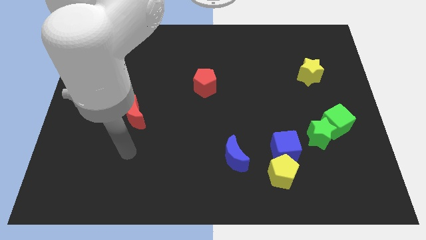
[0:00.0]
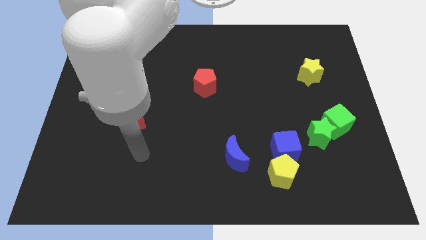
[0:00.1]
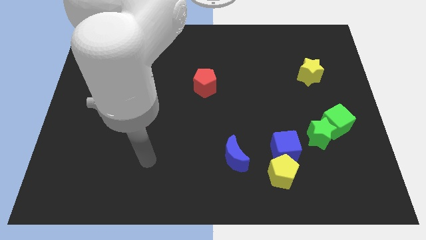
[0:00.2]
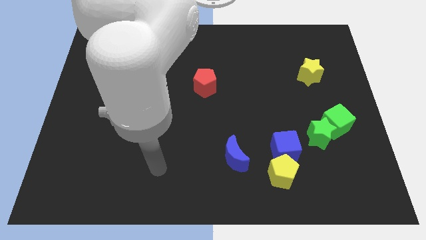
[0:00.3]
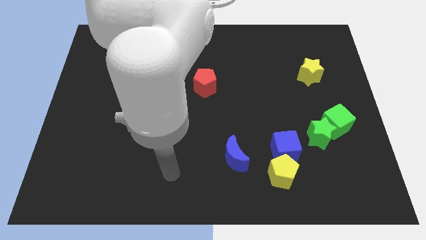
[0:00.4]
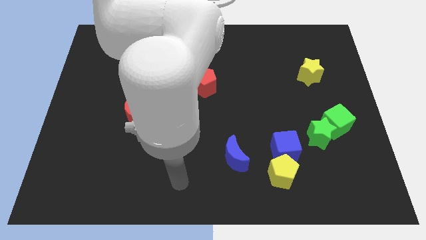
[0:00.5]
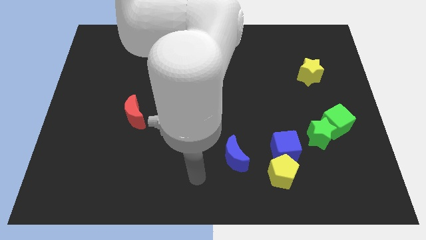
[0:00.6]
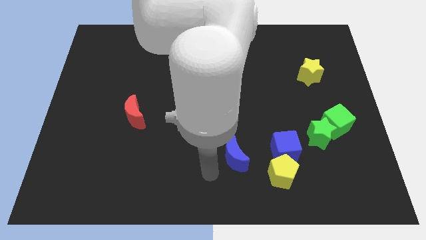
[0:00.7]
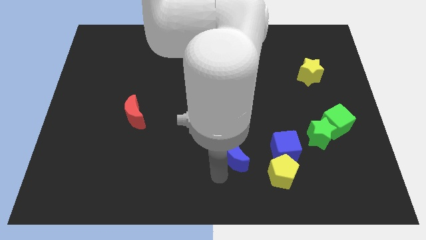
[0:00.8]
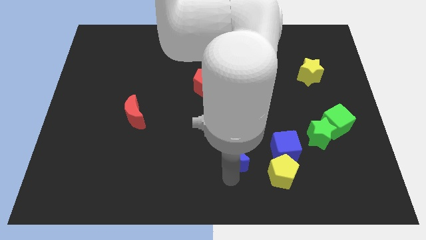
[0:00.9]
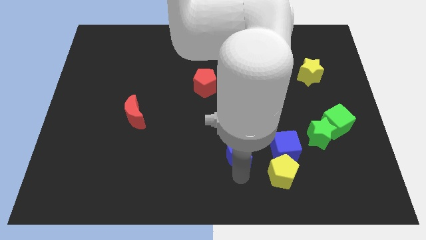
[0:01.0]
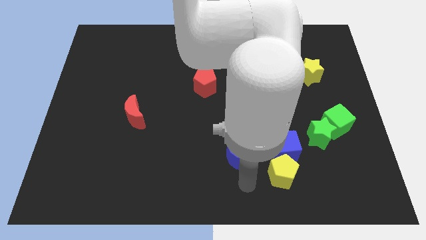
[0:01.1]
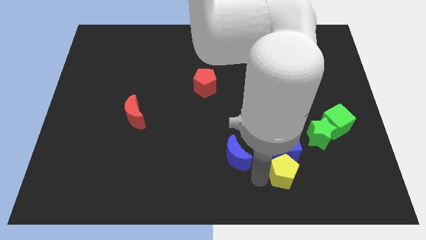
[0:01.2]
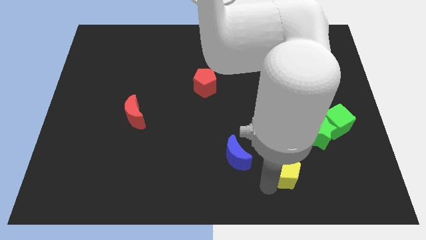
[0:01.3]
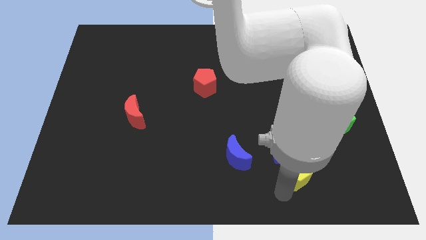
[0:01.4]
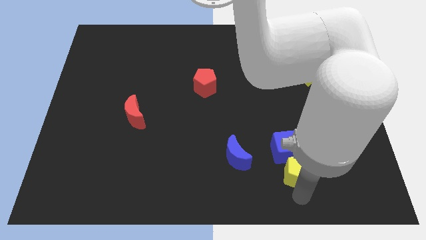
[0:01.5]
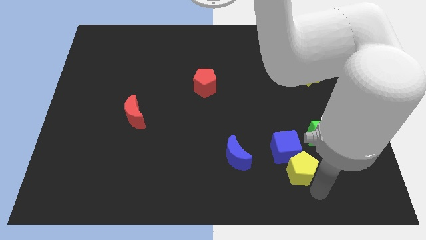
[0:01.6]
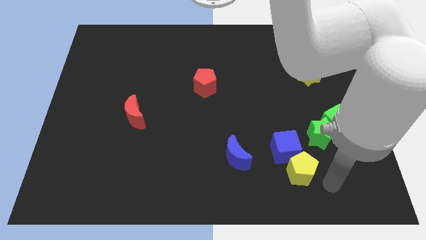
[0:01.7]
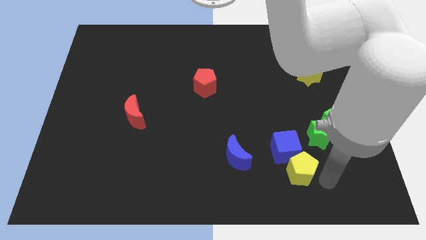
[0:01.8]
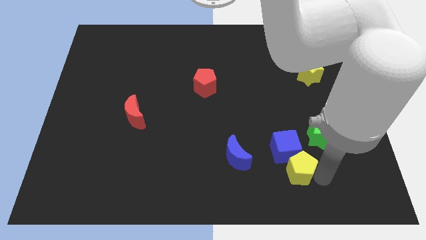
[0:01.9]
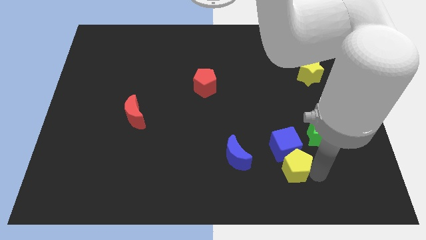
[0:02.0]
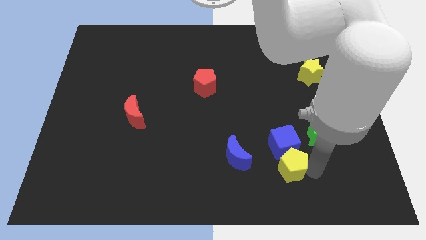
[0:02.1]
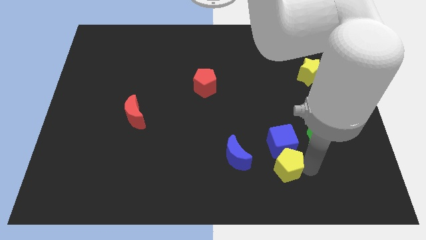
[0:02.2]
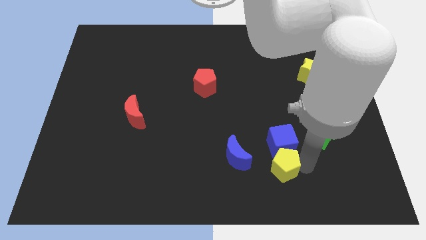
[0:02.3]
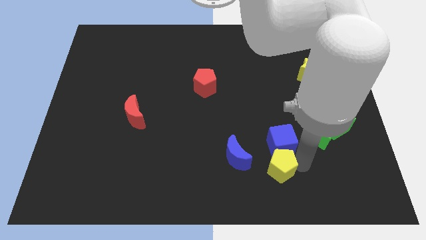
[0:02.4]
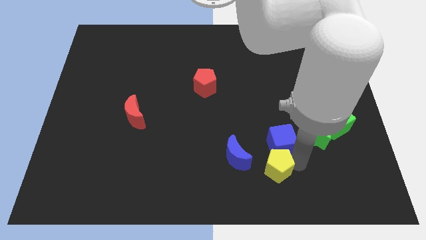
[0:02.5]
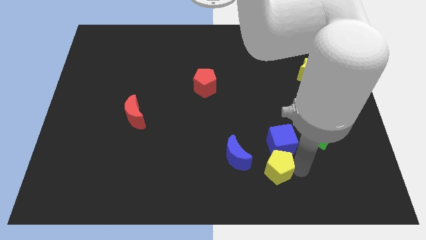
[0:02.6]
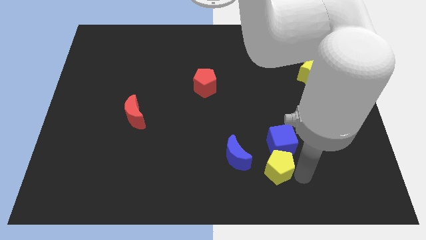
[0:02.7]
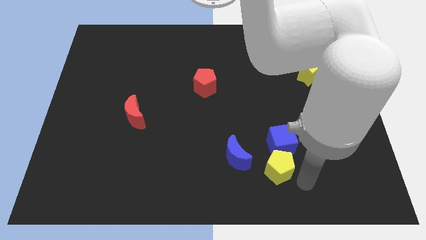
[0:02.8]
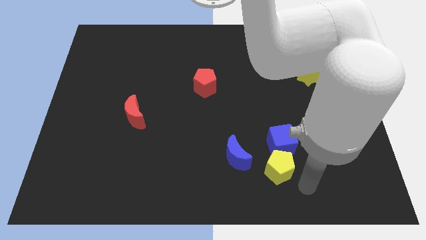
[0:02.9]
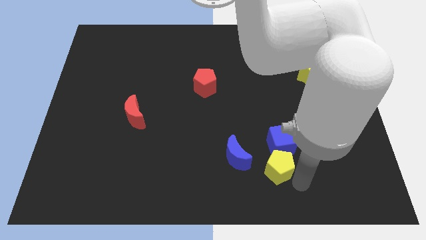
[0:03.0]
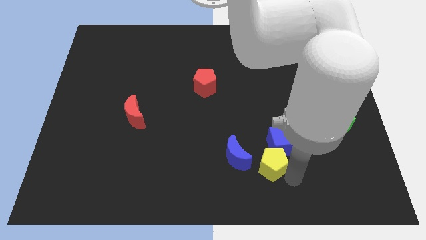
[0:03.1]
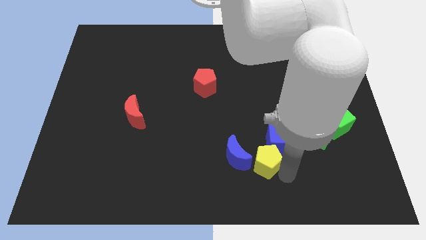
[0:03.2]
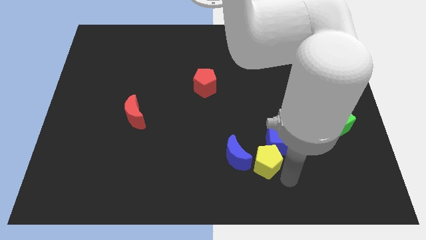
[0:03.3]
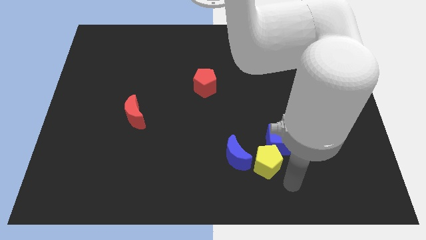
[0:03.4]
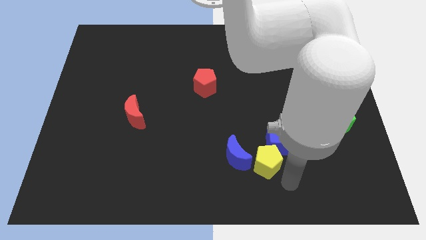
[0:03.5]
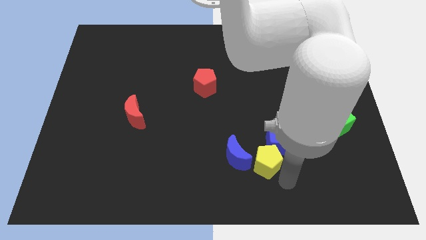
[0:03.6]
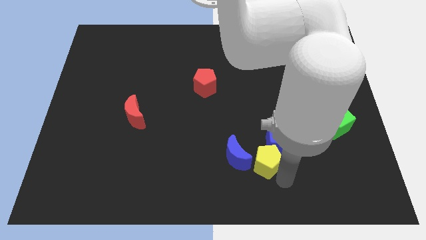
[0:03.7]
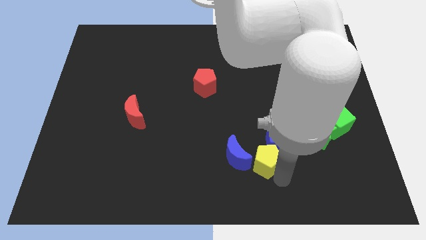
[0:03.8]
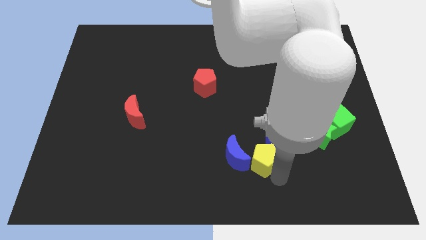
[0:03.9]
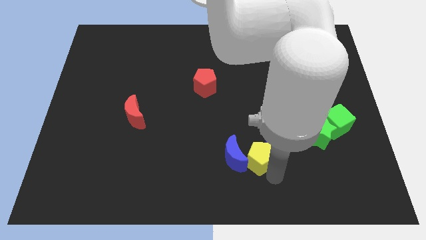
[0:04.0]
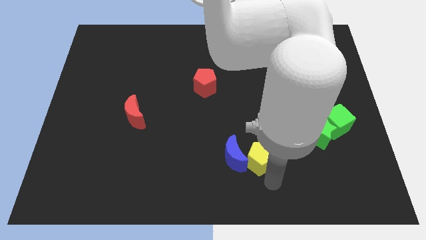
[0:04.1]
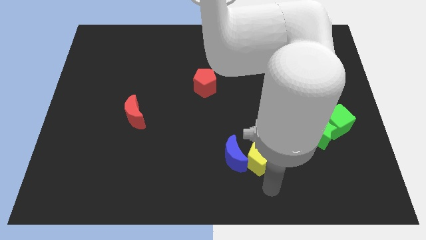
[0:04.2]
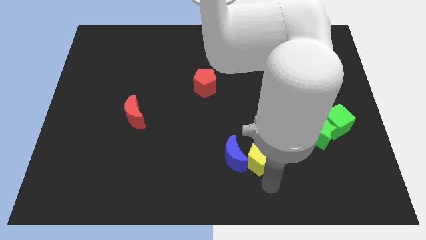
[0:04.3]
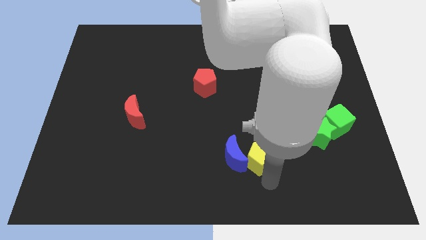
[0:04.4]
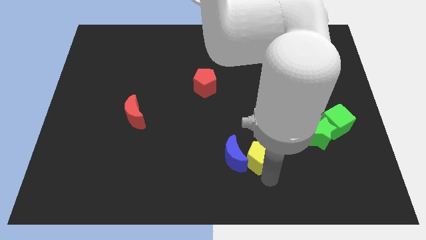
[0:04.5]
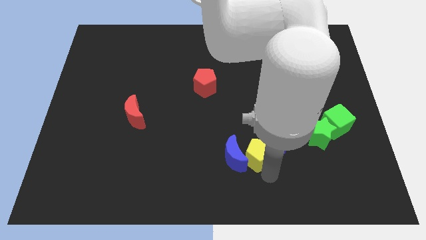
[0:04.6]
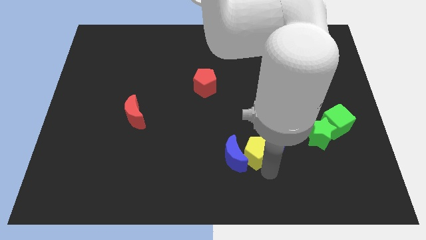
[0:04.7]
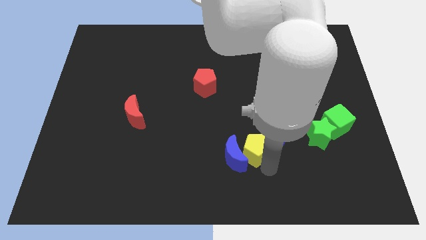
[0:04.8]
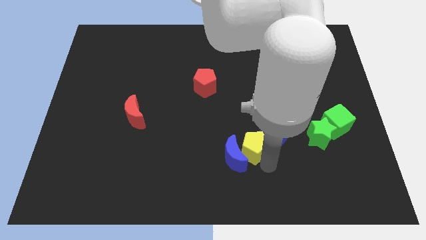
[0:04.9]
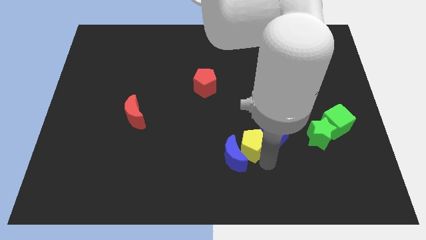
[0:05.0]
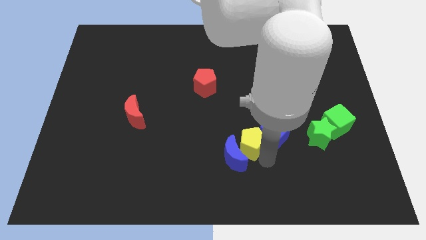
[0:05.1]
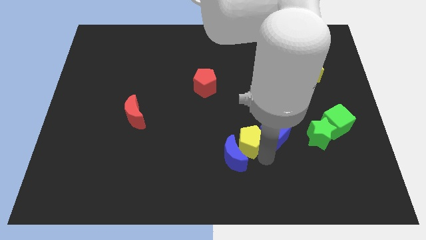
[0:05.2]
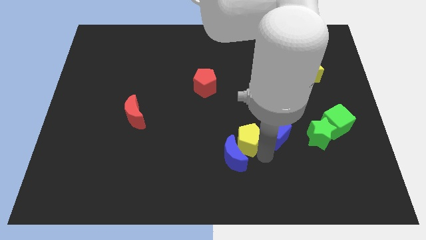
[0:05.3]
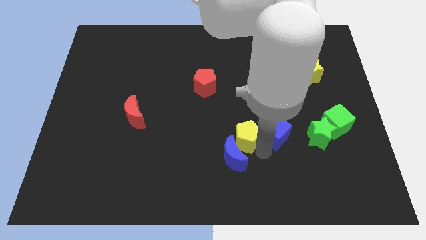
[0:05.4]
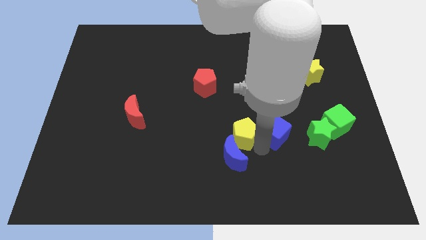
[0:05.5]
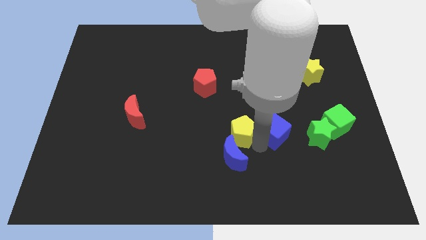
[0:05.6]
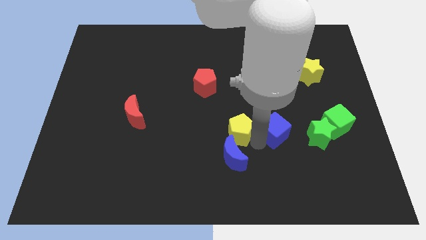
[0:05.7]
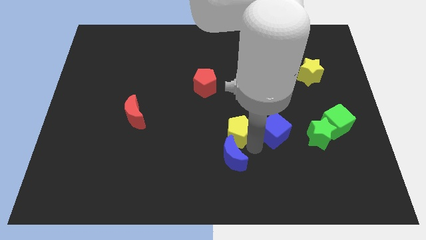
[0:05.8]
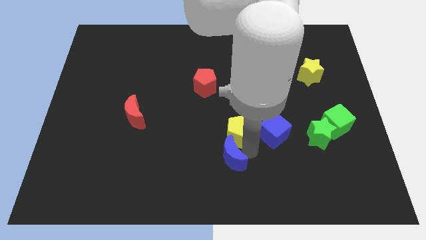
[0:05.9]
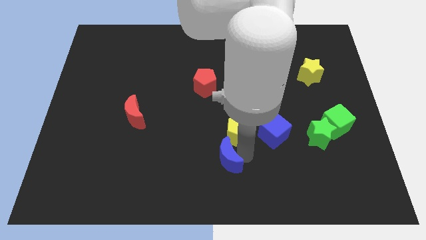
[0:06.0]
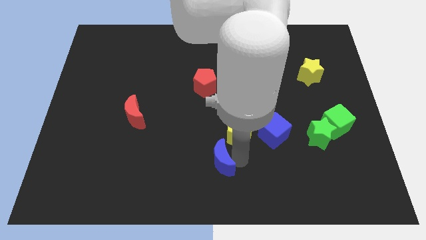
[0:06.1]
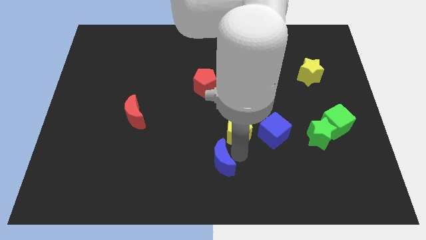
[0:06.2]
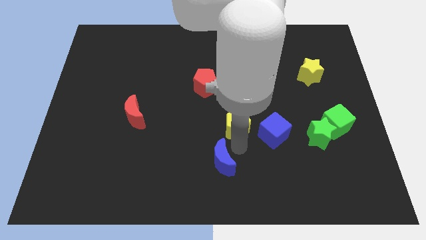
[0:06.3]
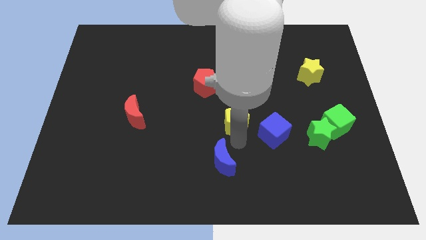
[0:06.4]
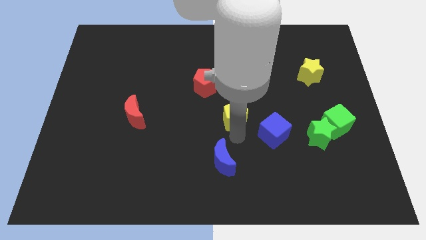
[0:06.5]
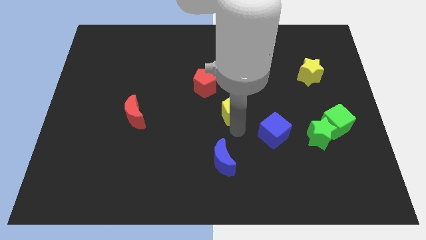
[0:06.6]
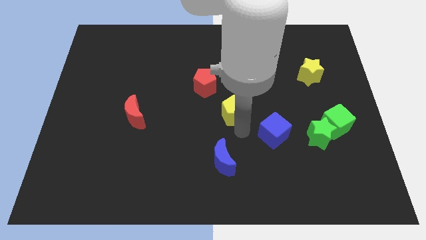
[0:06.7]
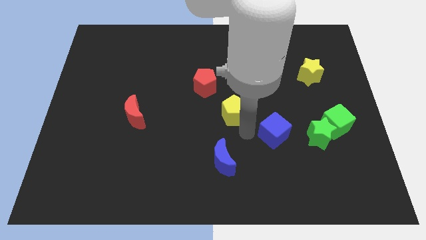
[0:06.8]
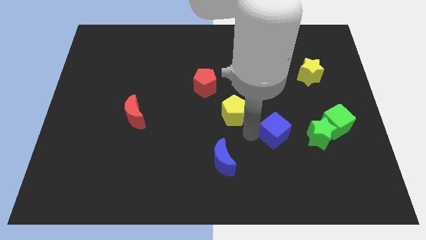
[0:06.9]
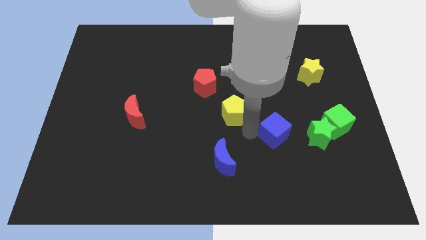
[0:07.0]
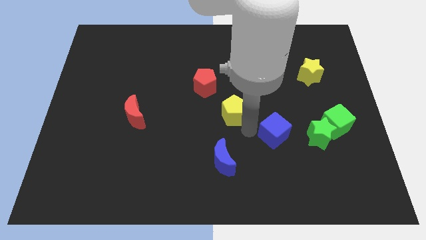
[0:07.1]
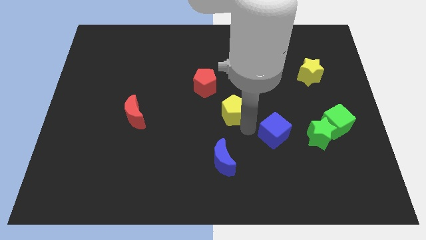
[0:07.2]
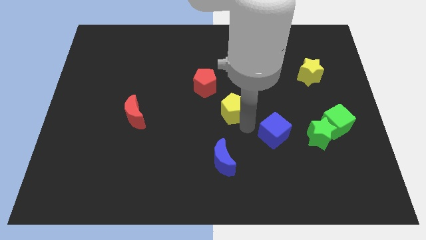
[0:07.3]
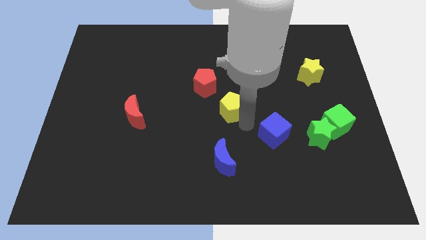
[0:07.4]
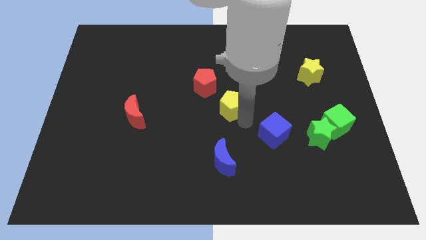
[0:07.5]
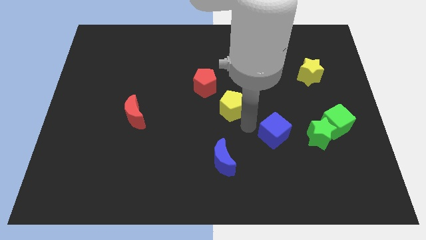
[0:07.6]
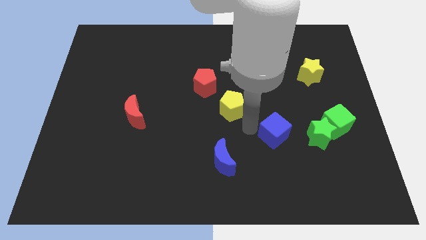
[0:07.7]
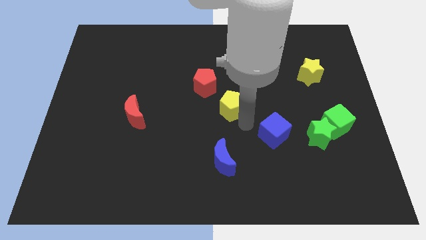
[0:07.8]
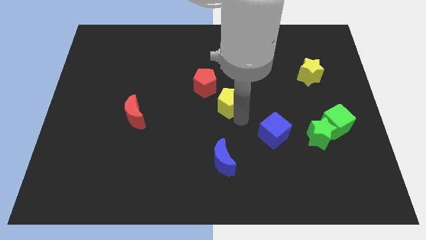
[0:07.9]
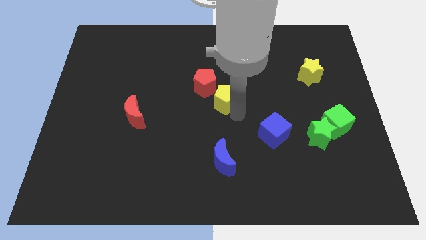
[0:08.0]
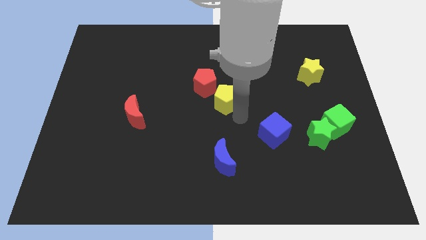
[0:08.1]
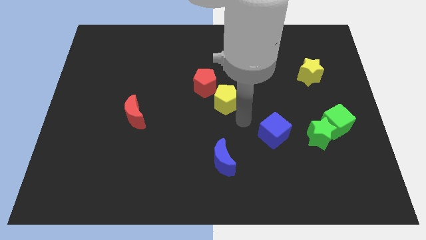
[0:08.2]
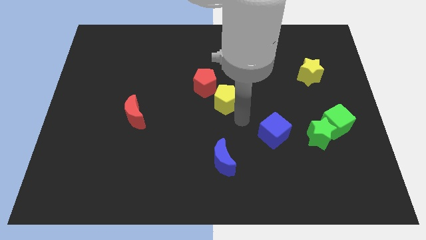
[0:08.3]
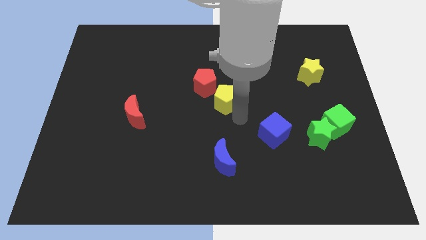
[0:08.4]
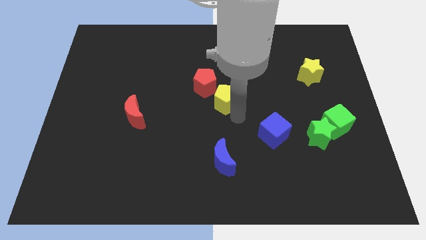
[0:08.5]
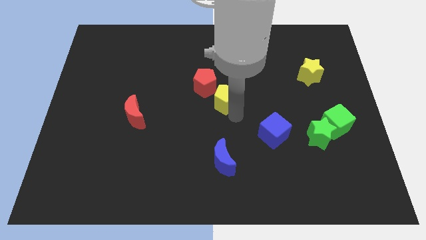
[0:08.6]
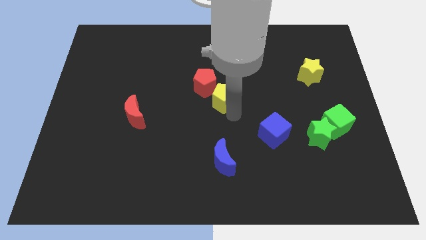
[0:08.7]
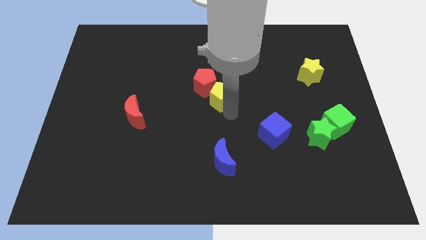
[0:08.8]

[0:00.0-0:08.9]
push the yellow pentagon towards the red pentagon
